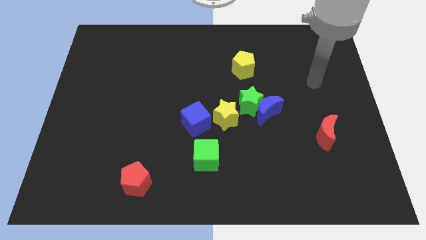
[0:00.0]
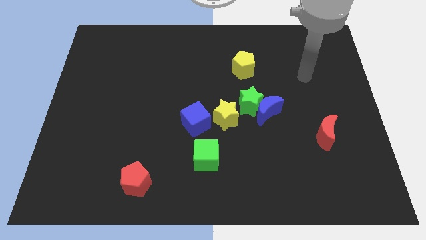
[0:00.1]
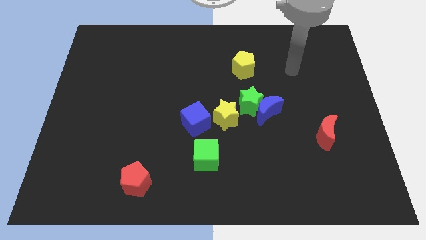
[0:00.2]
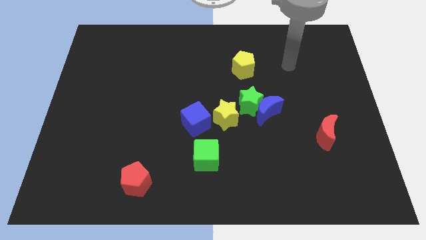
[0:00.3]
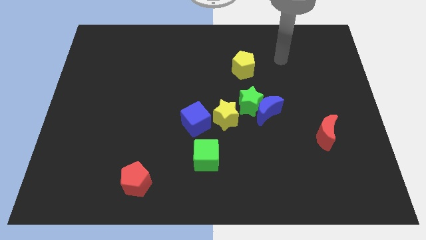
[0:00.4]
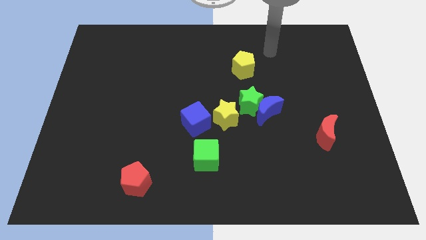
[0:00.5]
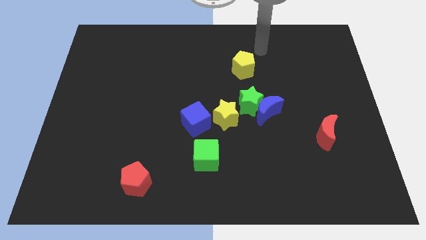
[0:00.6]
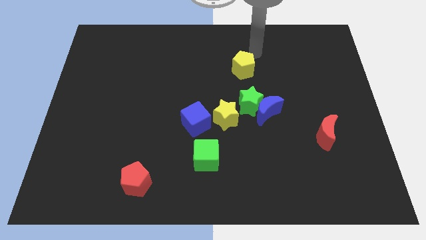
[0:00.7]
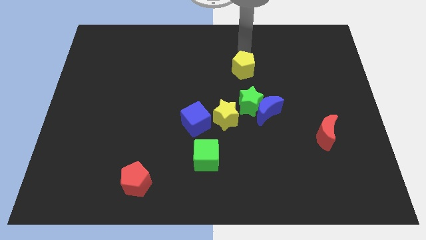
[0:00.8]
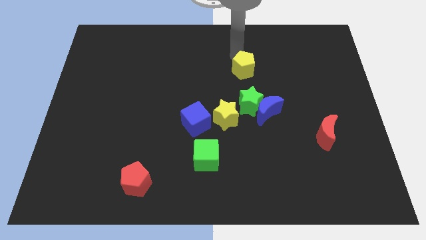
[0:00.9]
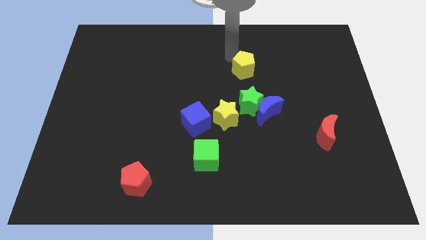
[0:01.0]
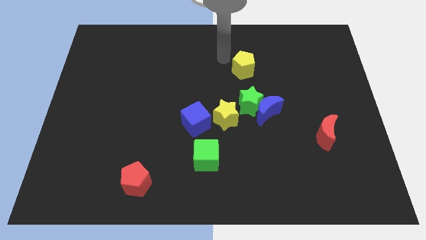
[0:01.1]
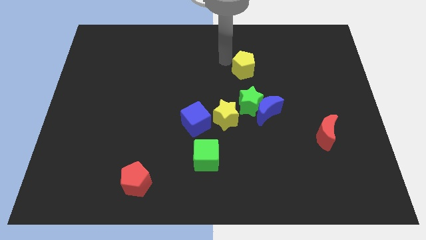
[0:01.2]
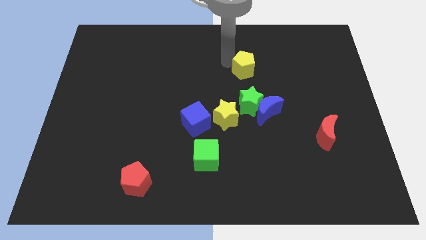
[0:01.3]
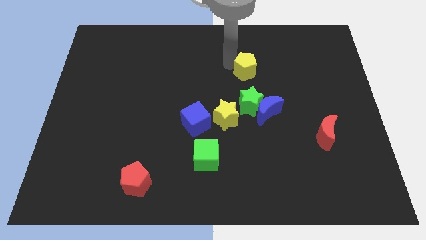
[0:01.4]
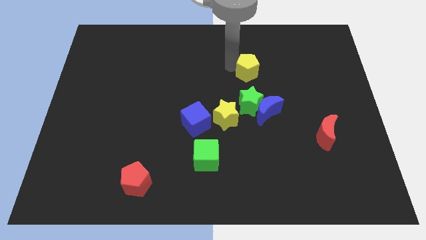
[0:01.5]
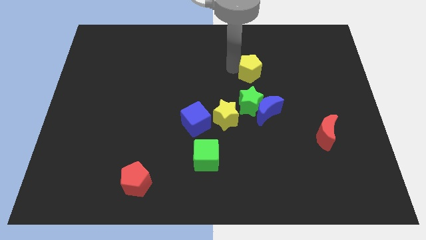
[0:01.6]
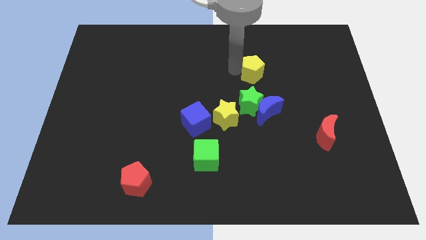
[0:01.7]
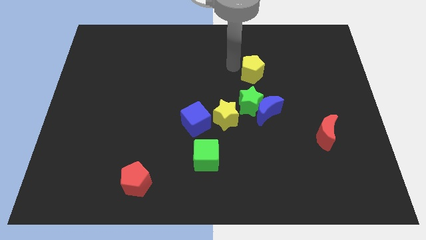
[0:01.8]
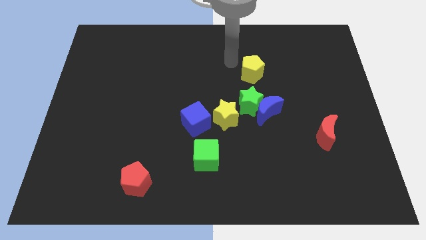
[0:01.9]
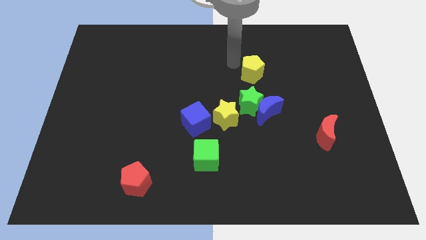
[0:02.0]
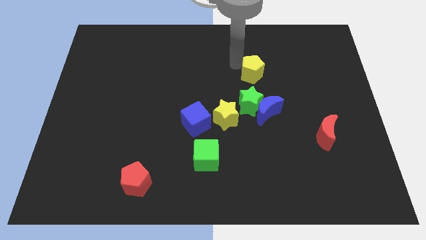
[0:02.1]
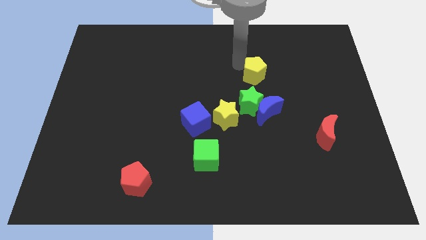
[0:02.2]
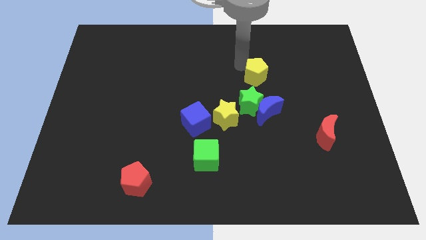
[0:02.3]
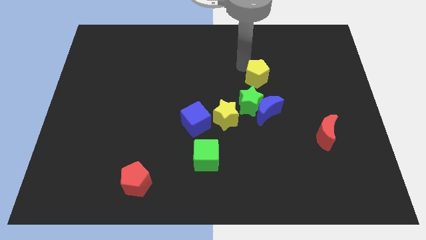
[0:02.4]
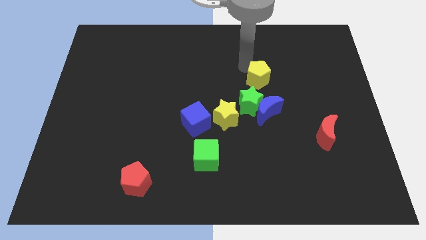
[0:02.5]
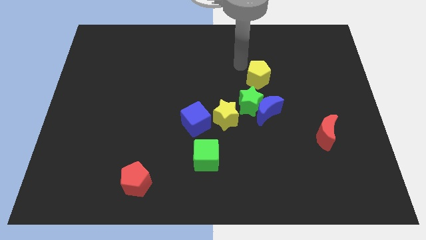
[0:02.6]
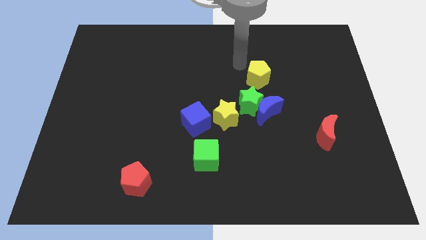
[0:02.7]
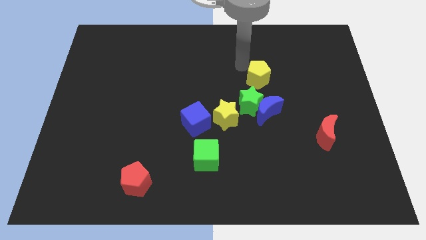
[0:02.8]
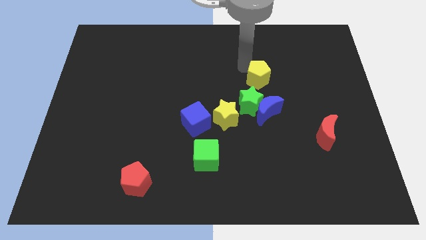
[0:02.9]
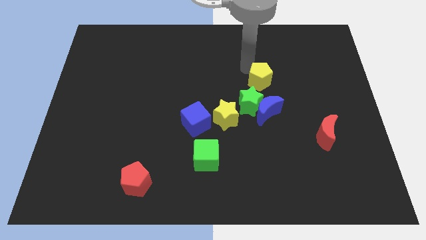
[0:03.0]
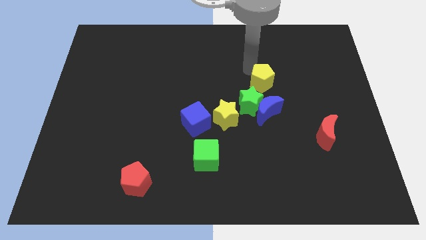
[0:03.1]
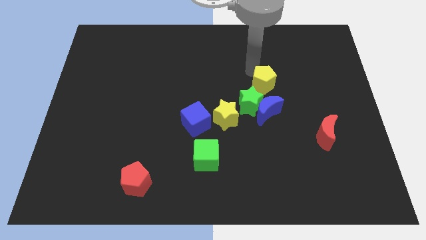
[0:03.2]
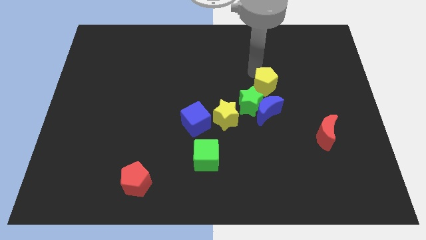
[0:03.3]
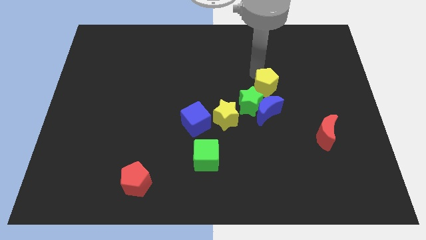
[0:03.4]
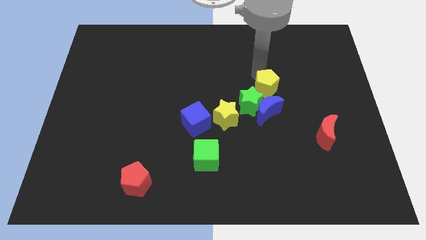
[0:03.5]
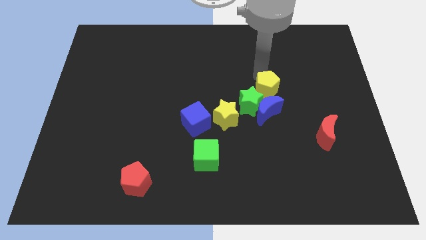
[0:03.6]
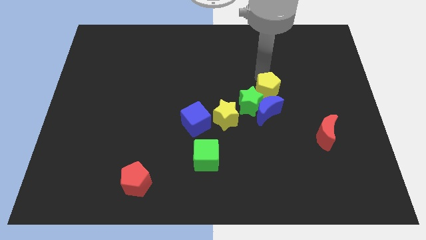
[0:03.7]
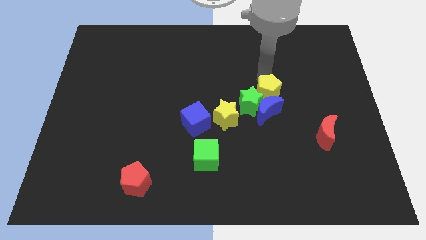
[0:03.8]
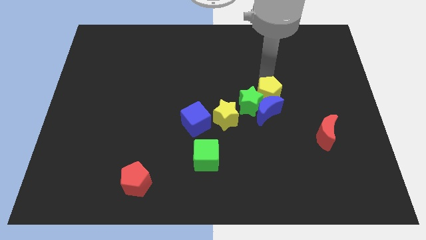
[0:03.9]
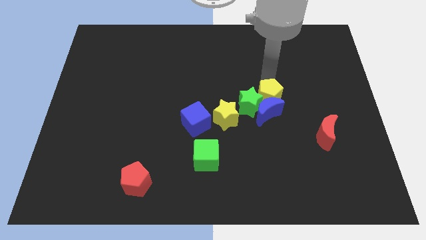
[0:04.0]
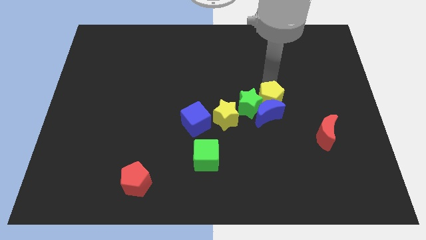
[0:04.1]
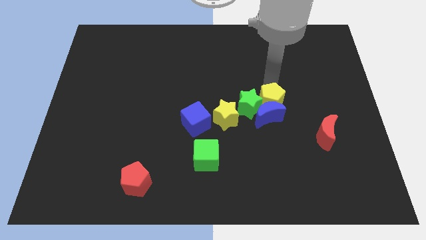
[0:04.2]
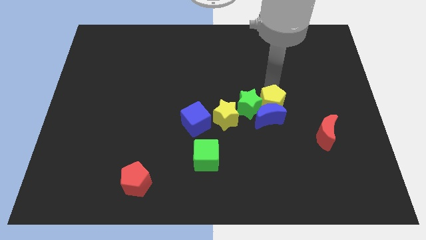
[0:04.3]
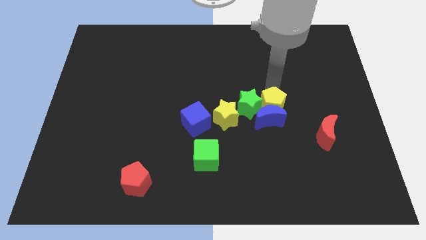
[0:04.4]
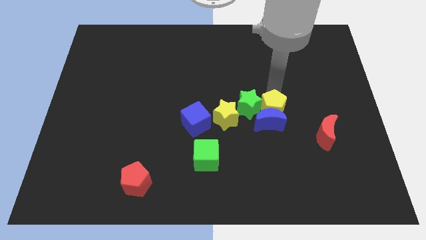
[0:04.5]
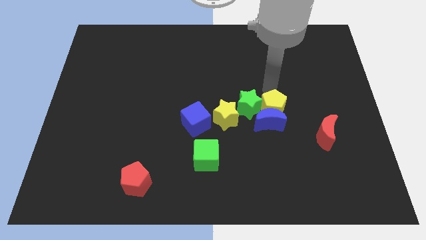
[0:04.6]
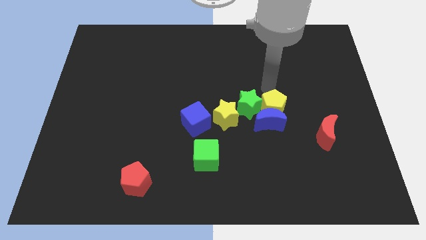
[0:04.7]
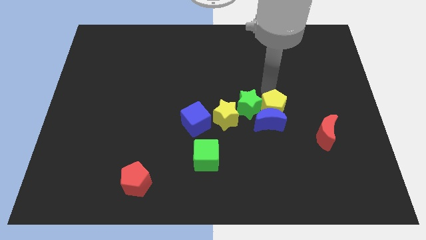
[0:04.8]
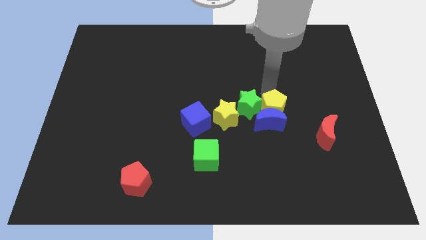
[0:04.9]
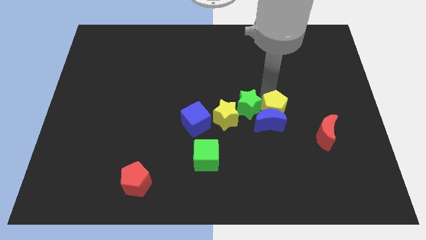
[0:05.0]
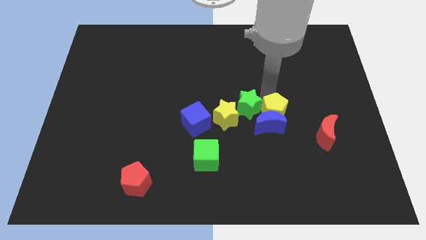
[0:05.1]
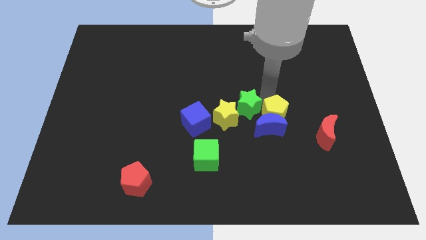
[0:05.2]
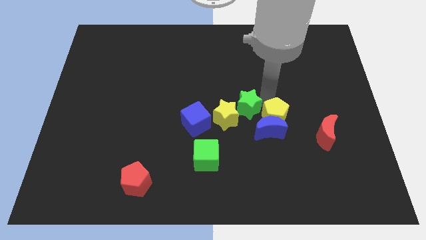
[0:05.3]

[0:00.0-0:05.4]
push the yellow pentagon to the left of the red moon

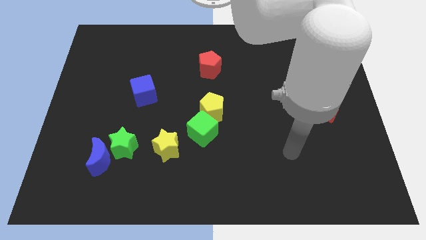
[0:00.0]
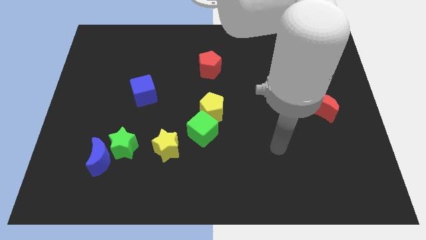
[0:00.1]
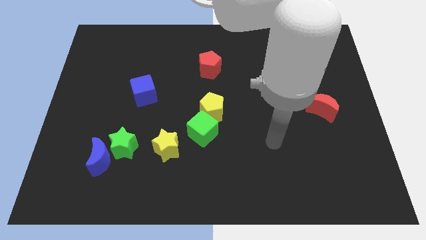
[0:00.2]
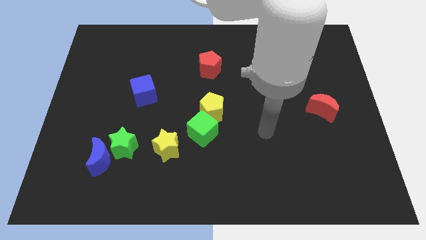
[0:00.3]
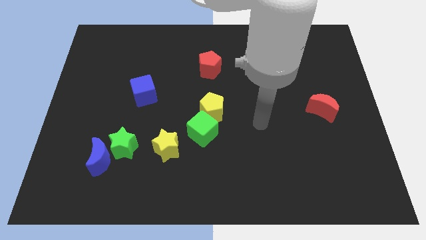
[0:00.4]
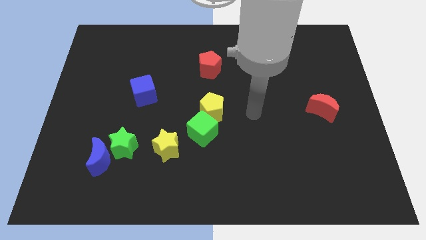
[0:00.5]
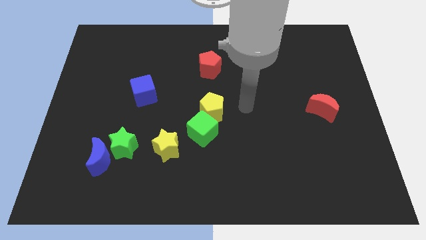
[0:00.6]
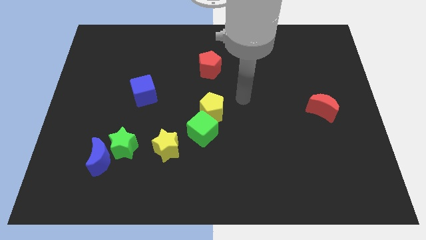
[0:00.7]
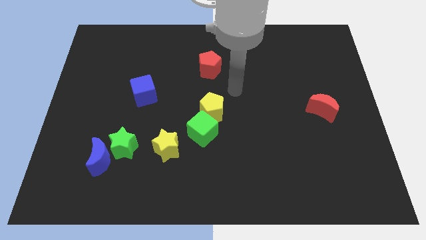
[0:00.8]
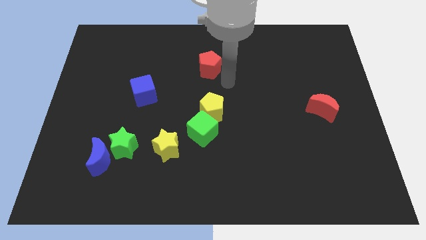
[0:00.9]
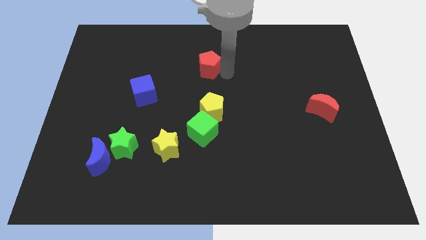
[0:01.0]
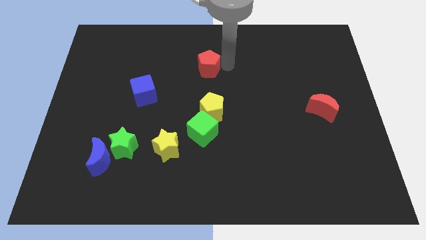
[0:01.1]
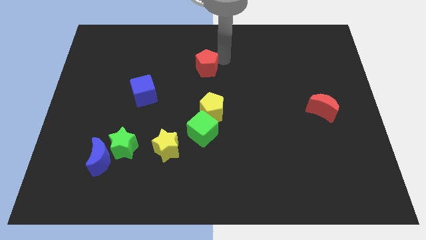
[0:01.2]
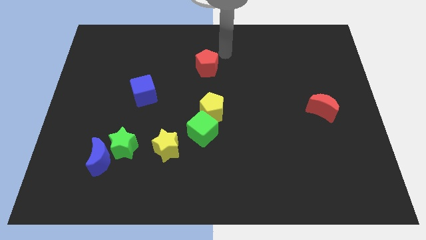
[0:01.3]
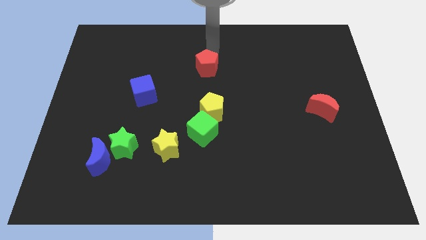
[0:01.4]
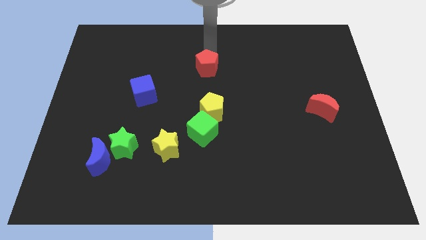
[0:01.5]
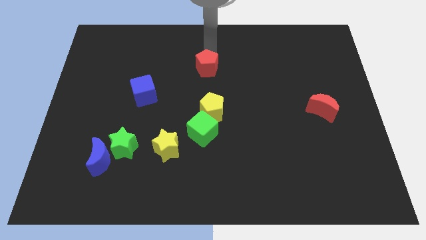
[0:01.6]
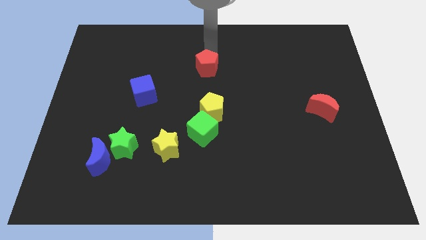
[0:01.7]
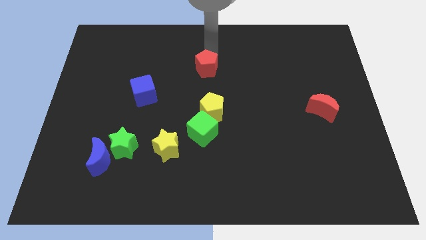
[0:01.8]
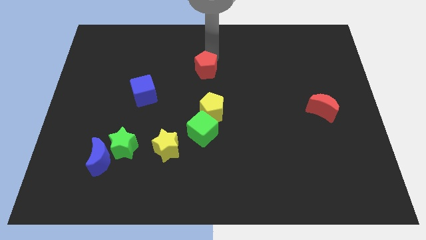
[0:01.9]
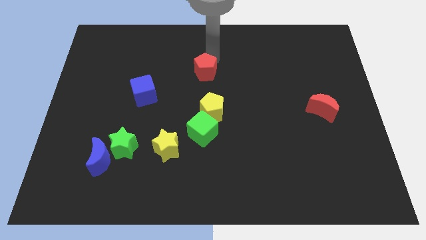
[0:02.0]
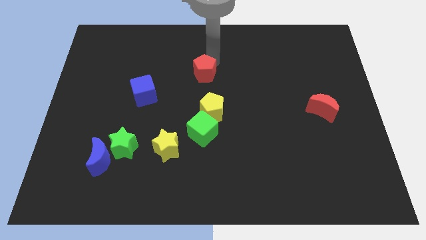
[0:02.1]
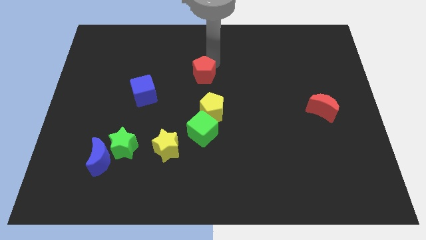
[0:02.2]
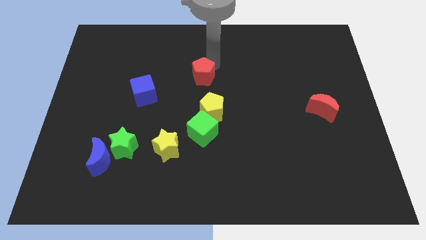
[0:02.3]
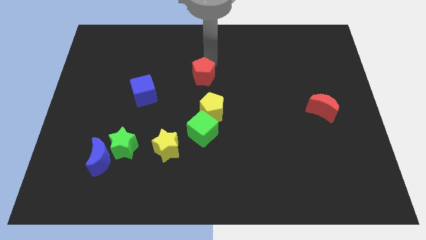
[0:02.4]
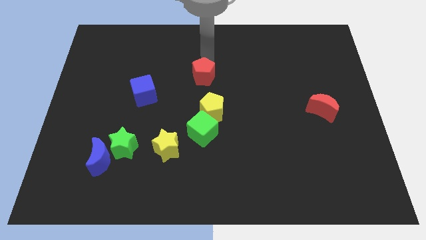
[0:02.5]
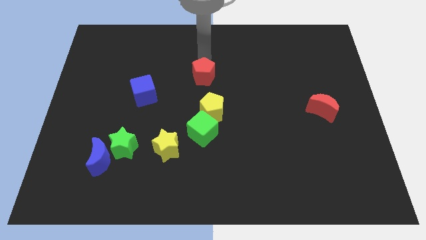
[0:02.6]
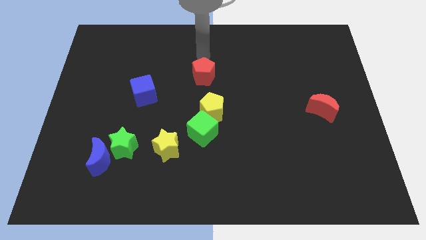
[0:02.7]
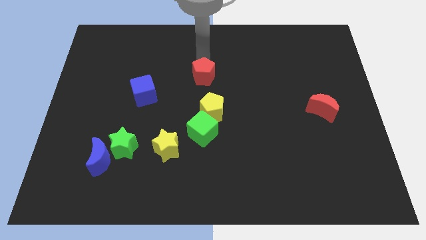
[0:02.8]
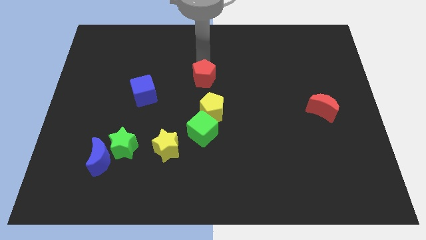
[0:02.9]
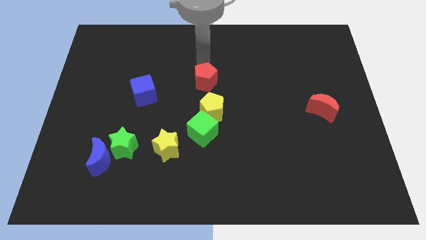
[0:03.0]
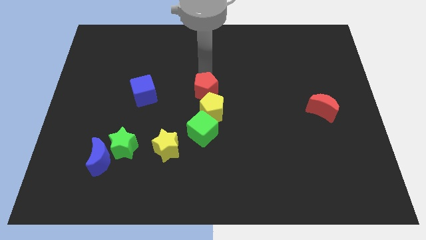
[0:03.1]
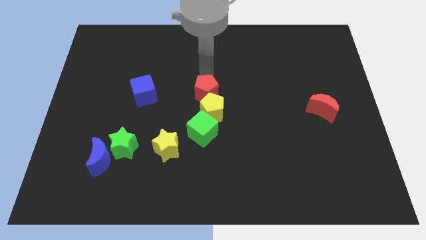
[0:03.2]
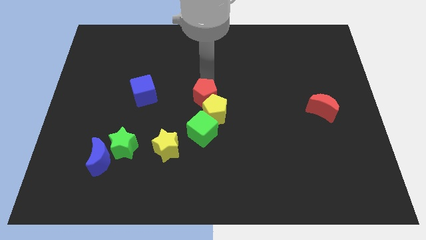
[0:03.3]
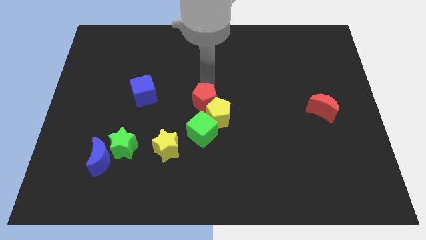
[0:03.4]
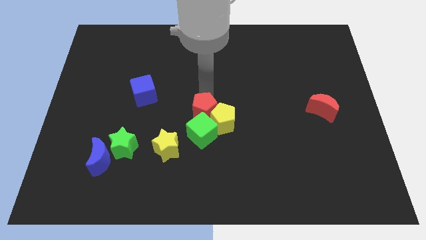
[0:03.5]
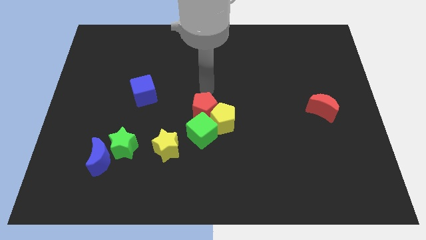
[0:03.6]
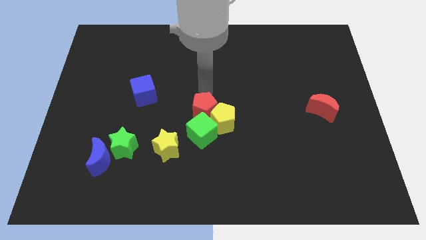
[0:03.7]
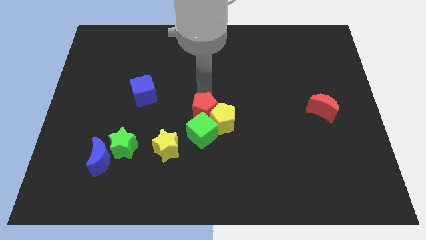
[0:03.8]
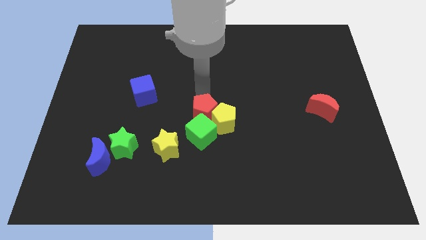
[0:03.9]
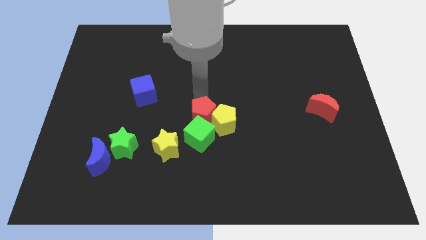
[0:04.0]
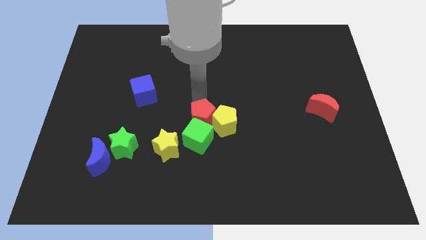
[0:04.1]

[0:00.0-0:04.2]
push the red pentagon diagonally down and to the left of the yellow pentagon
